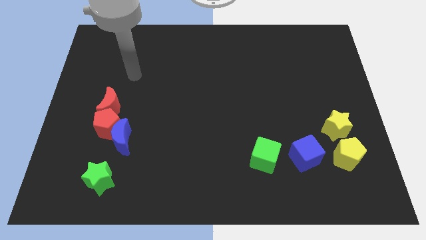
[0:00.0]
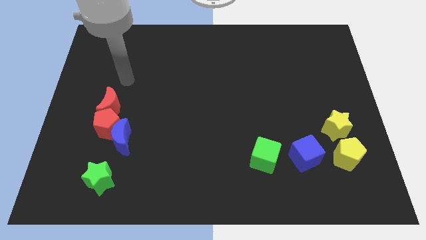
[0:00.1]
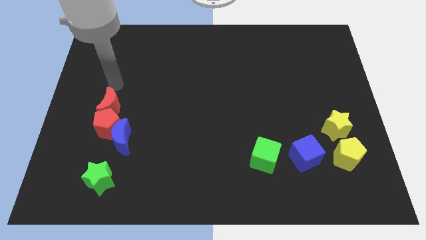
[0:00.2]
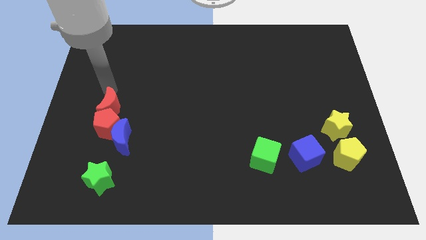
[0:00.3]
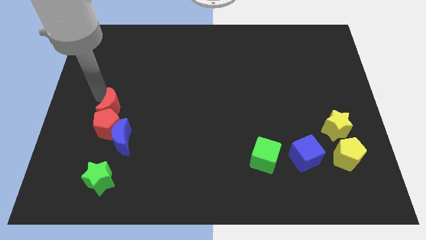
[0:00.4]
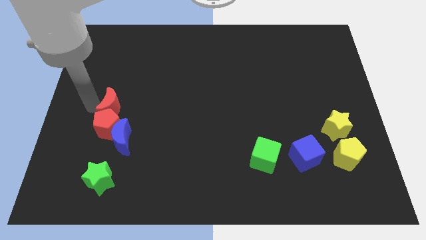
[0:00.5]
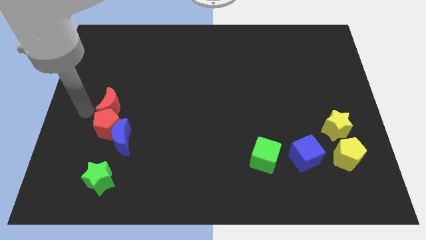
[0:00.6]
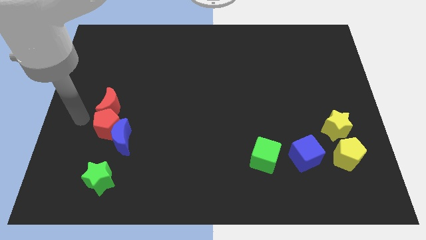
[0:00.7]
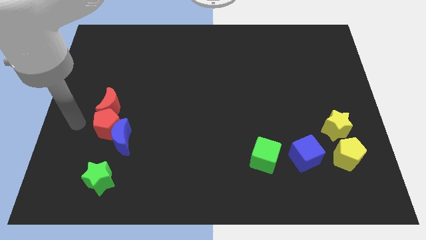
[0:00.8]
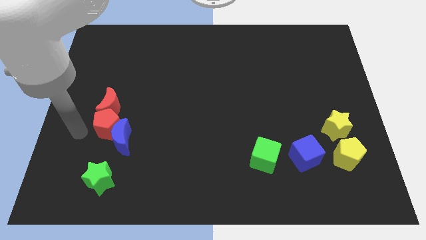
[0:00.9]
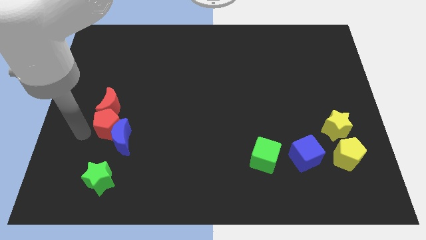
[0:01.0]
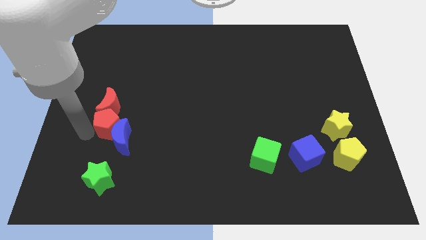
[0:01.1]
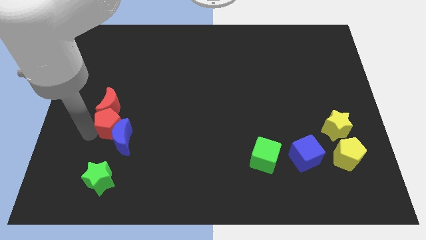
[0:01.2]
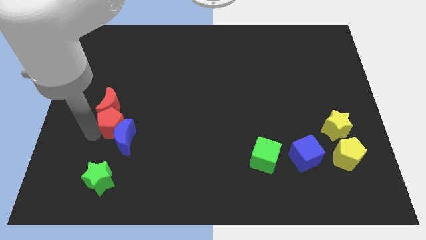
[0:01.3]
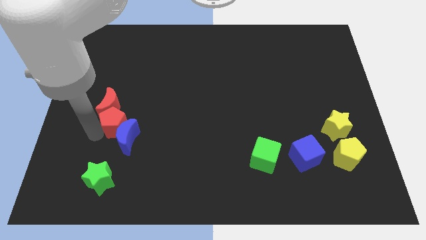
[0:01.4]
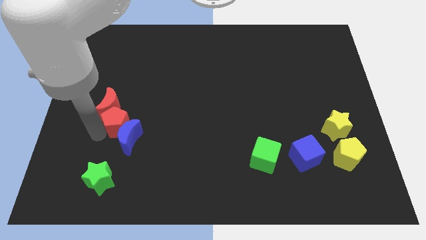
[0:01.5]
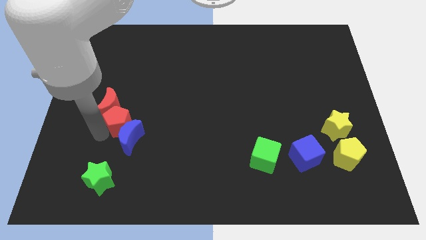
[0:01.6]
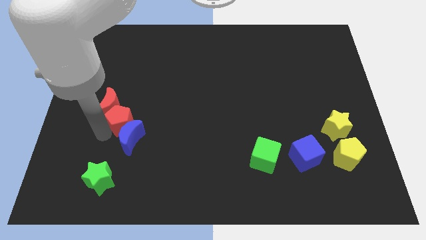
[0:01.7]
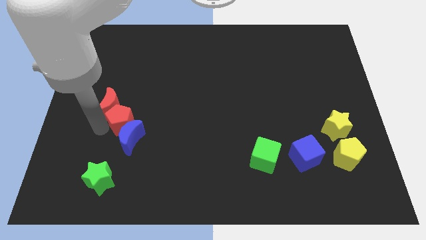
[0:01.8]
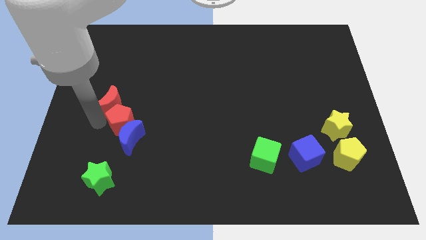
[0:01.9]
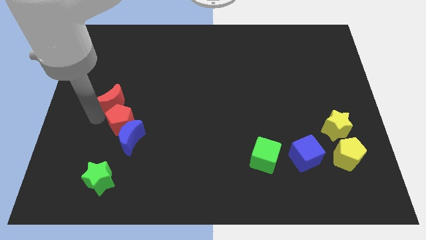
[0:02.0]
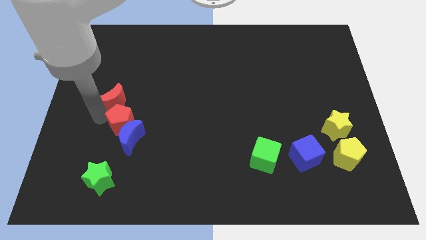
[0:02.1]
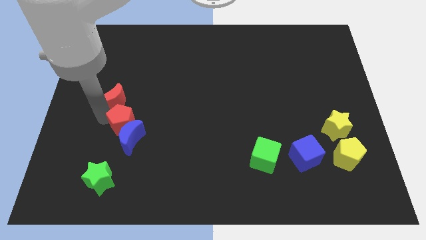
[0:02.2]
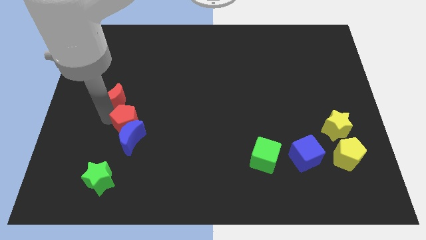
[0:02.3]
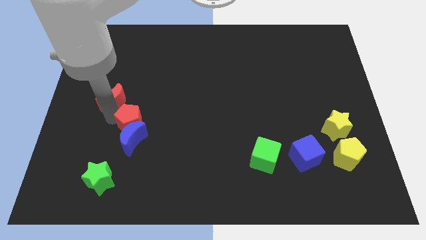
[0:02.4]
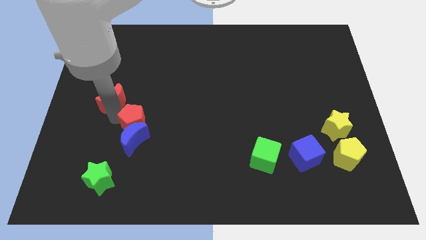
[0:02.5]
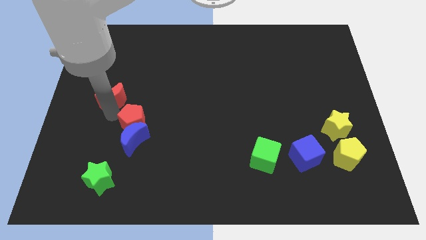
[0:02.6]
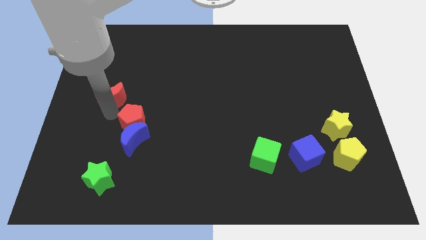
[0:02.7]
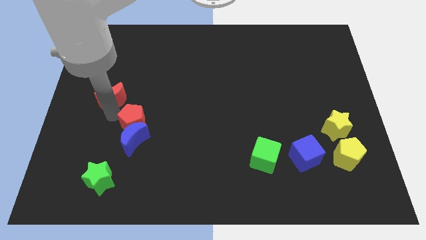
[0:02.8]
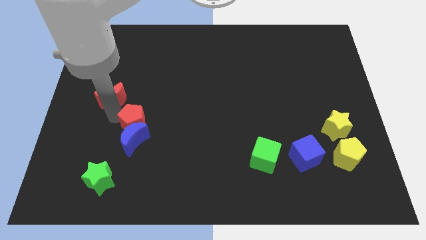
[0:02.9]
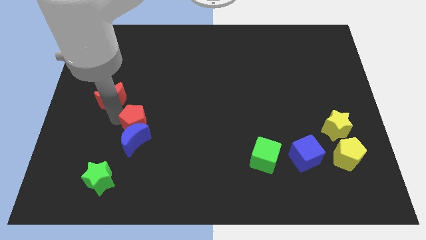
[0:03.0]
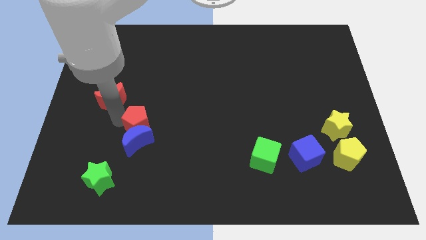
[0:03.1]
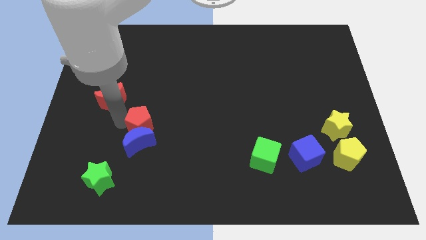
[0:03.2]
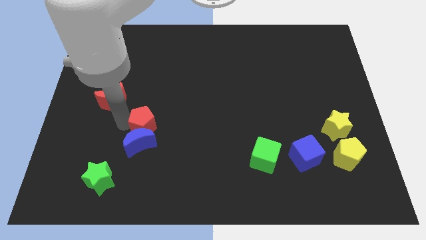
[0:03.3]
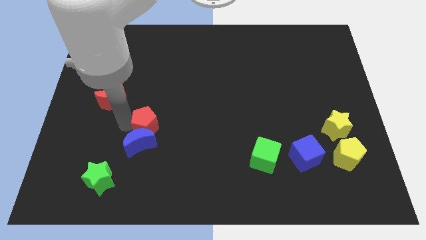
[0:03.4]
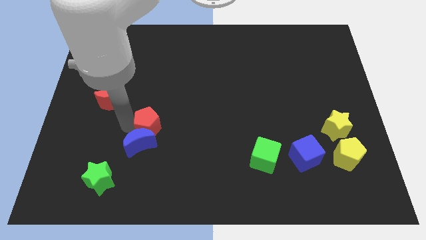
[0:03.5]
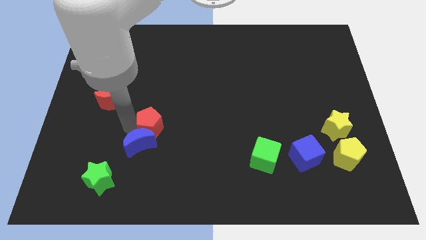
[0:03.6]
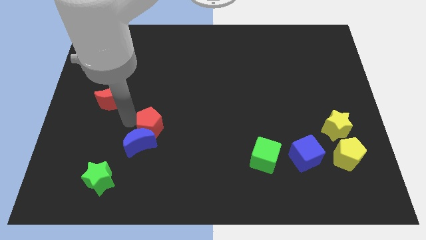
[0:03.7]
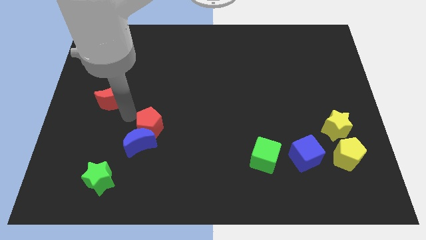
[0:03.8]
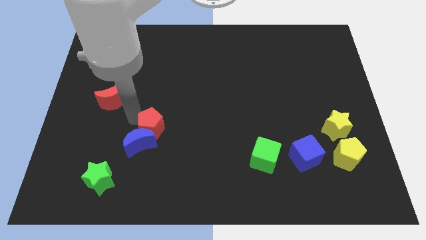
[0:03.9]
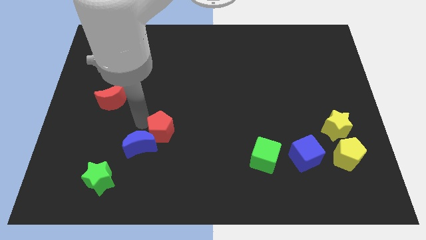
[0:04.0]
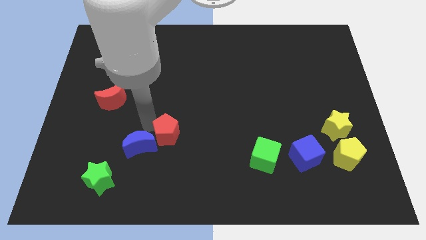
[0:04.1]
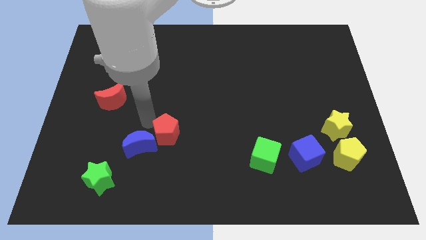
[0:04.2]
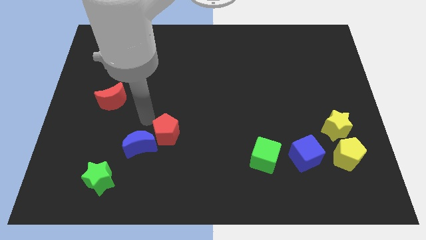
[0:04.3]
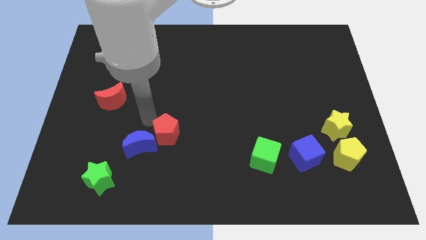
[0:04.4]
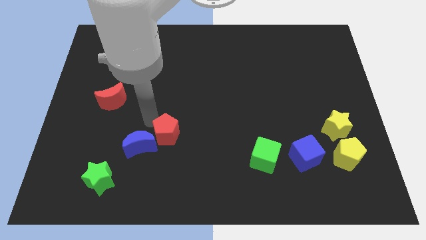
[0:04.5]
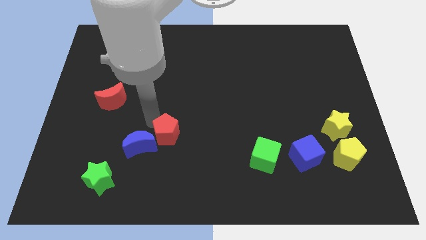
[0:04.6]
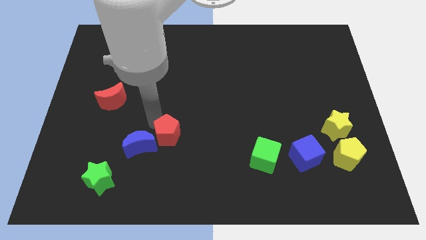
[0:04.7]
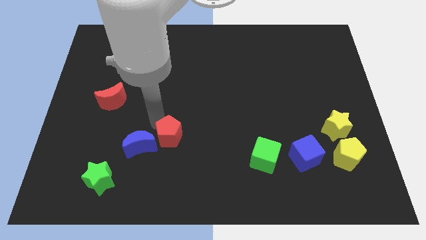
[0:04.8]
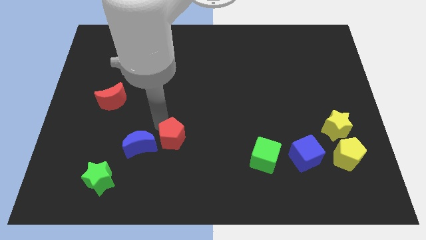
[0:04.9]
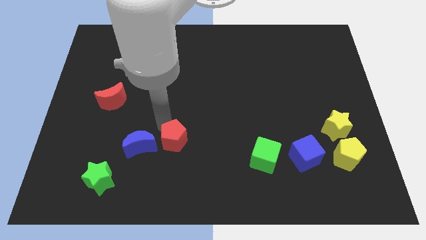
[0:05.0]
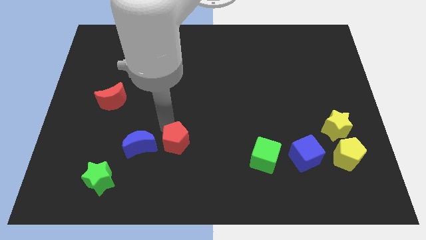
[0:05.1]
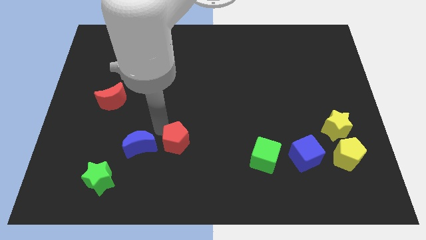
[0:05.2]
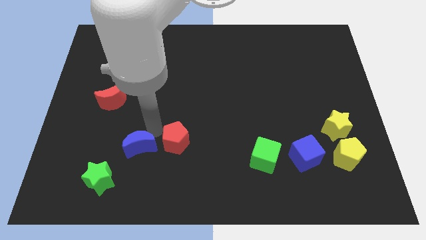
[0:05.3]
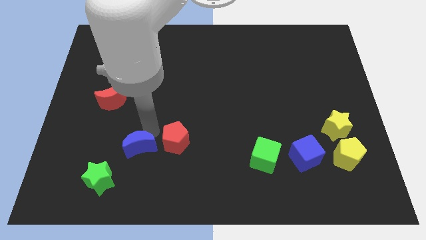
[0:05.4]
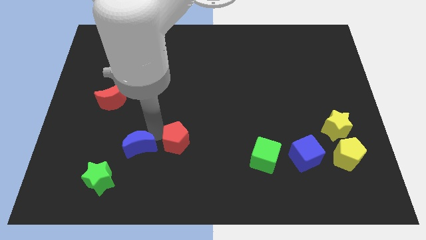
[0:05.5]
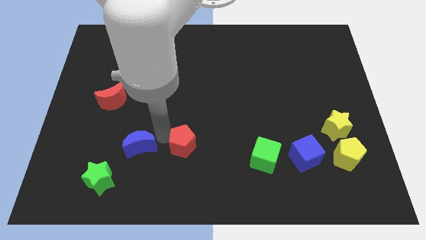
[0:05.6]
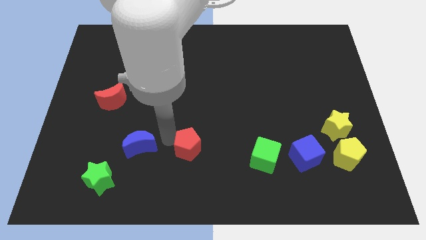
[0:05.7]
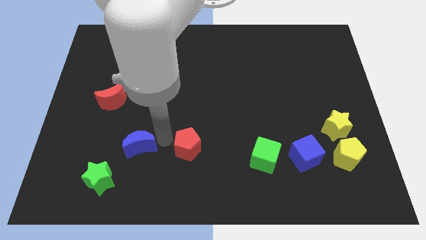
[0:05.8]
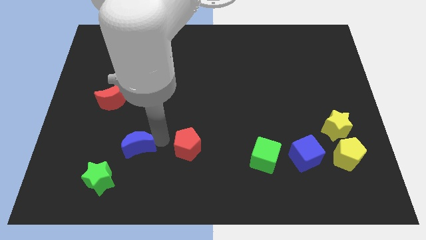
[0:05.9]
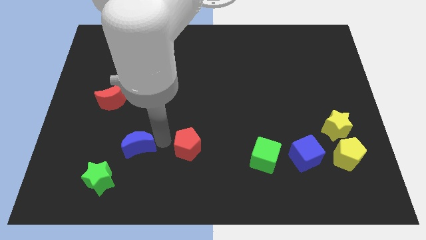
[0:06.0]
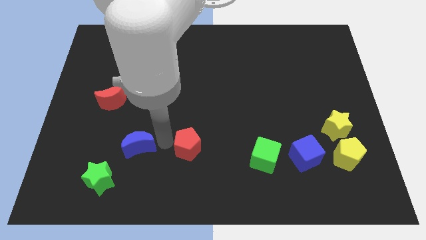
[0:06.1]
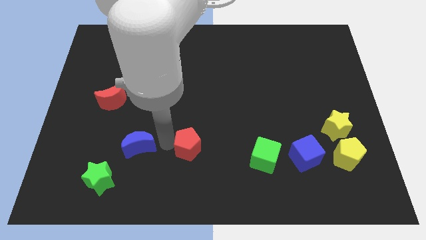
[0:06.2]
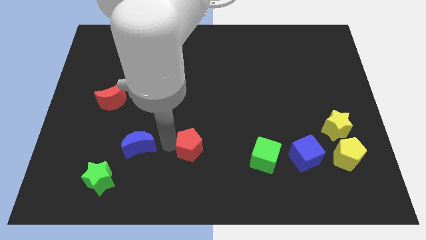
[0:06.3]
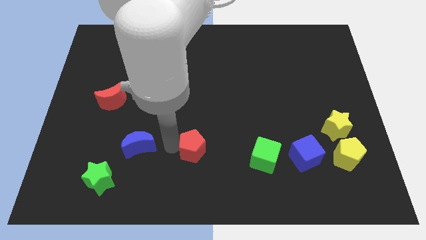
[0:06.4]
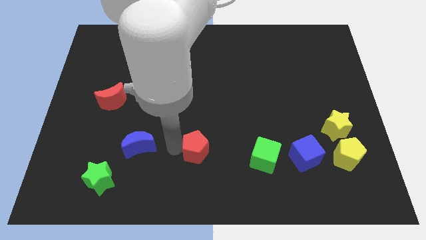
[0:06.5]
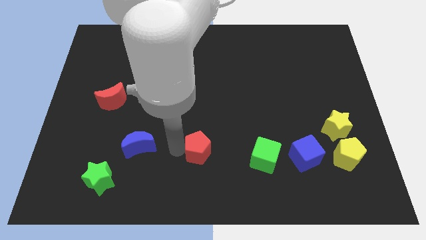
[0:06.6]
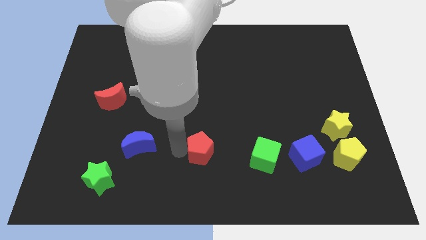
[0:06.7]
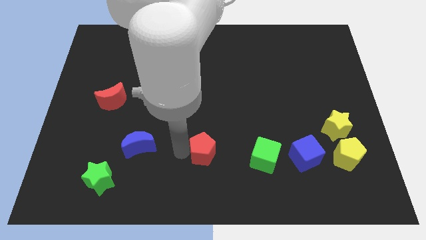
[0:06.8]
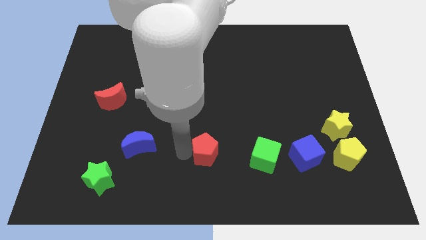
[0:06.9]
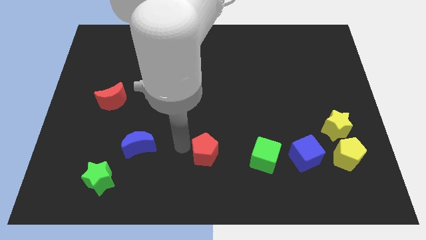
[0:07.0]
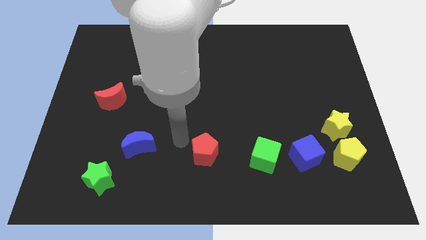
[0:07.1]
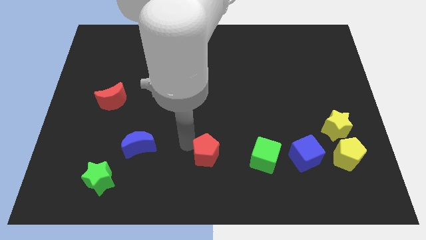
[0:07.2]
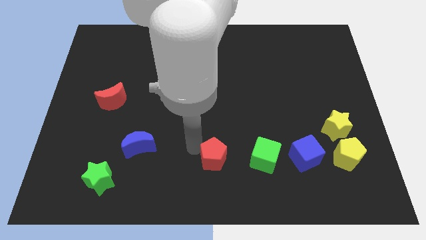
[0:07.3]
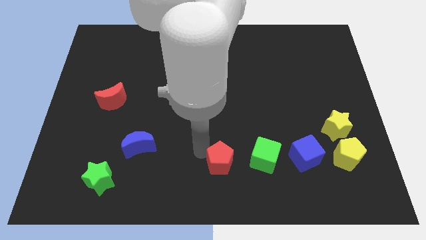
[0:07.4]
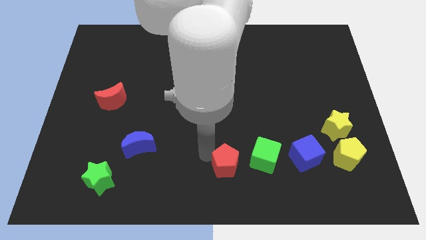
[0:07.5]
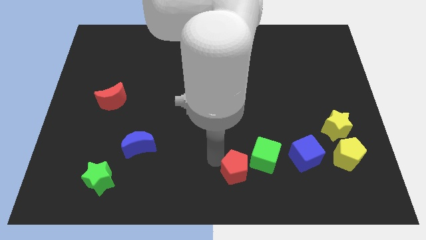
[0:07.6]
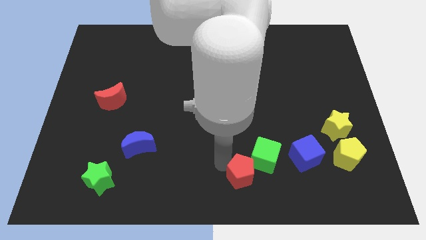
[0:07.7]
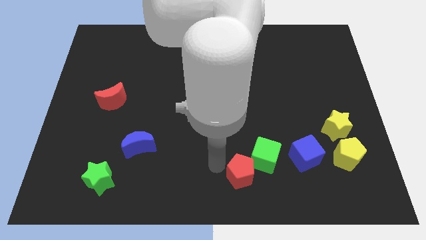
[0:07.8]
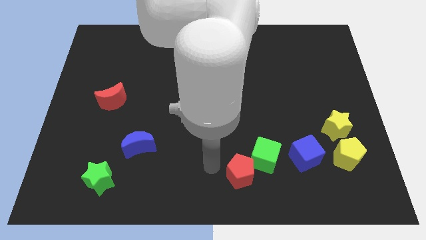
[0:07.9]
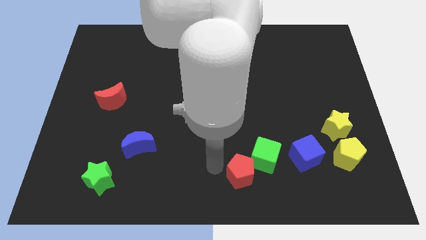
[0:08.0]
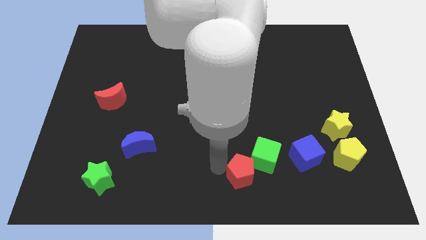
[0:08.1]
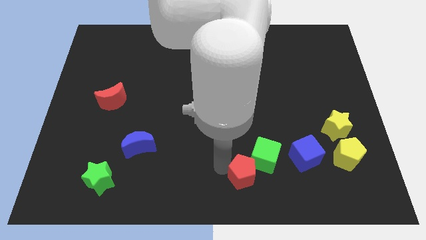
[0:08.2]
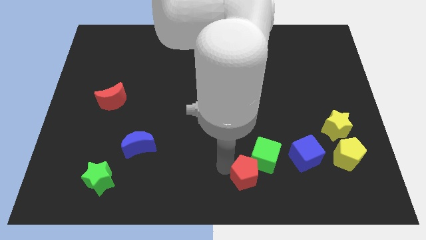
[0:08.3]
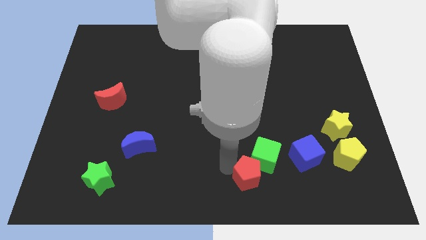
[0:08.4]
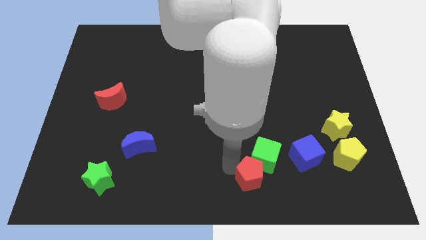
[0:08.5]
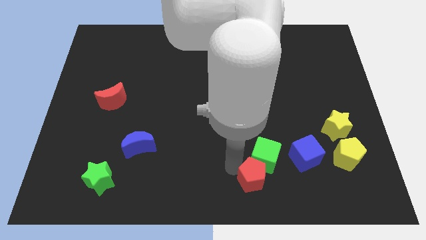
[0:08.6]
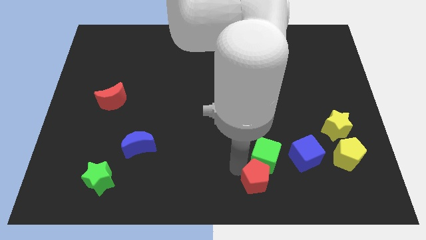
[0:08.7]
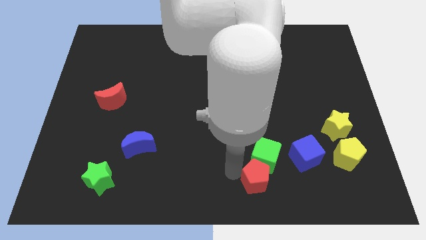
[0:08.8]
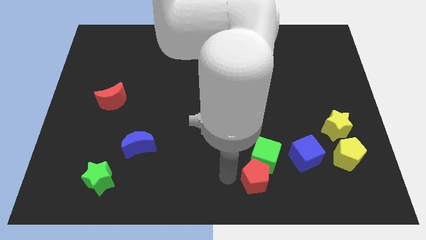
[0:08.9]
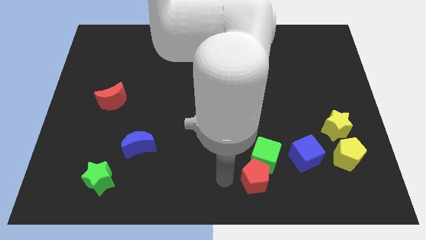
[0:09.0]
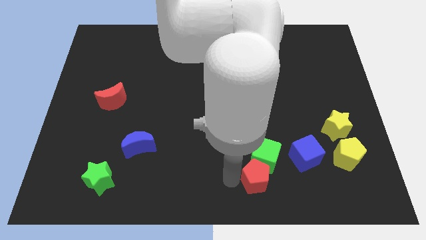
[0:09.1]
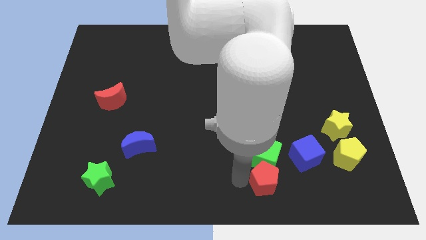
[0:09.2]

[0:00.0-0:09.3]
put the red pentagon diagonally down and to the right of the green cube
